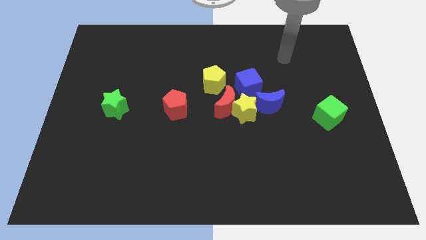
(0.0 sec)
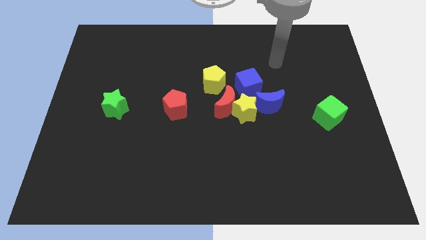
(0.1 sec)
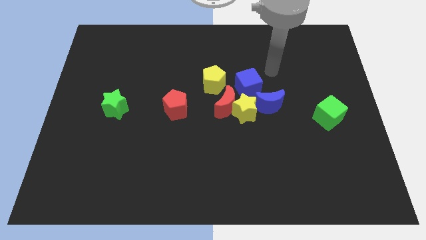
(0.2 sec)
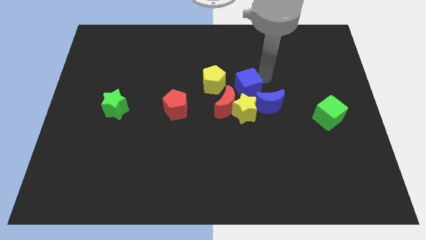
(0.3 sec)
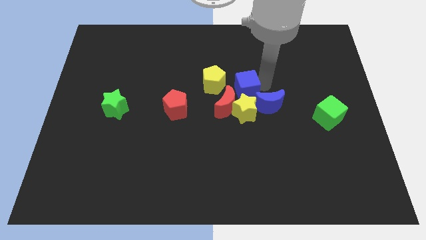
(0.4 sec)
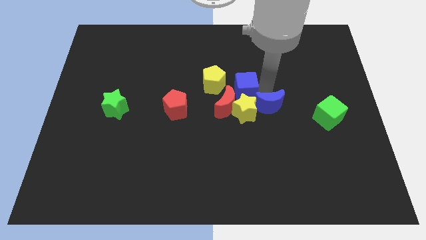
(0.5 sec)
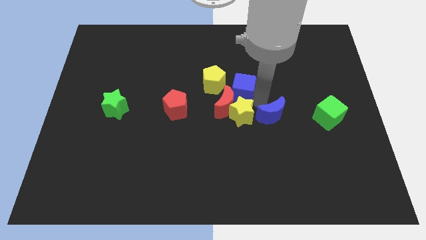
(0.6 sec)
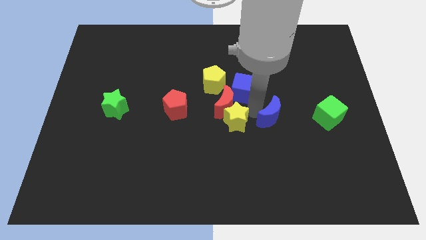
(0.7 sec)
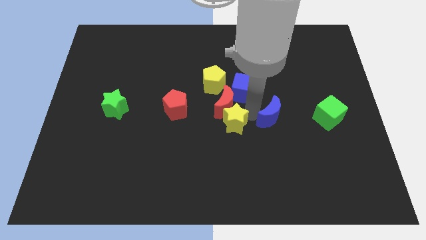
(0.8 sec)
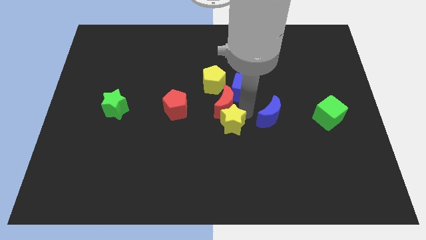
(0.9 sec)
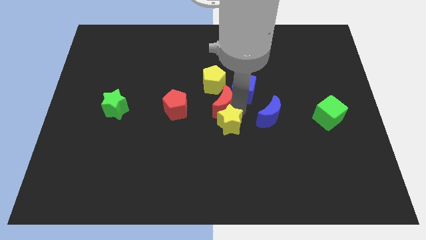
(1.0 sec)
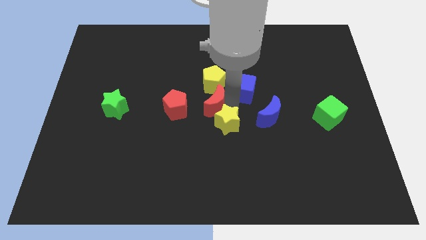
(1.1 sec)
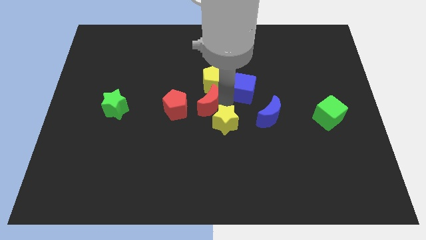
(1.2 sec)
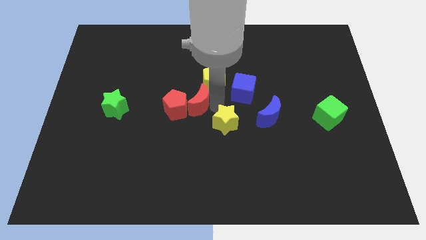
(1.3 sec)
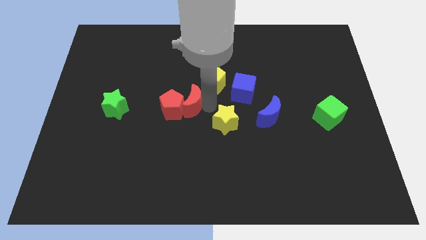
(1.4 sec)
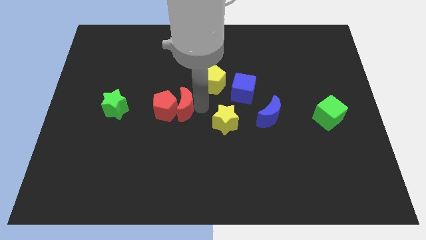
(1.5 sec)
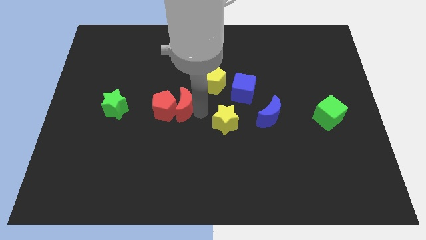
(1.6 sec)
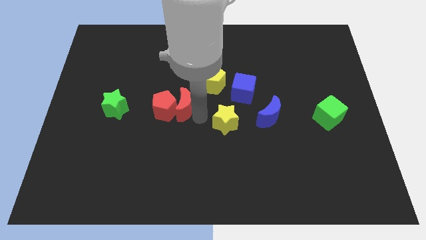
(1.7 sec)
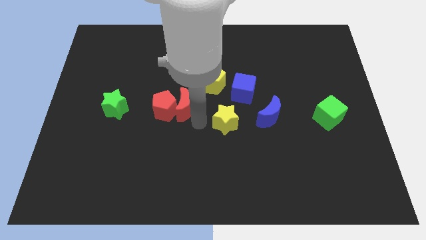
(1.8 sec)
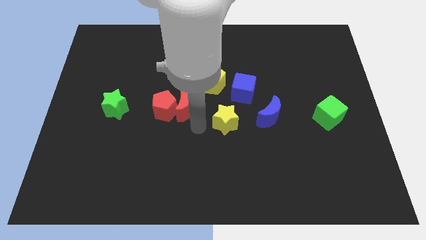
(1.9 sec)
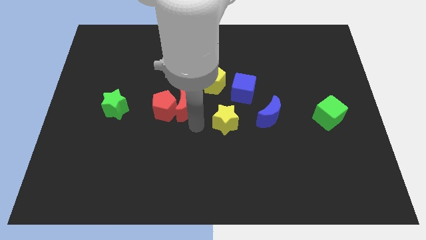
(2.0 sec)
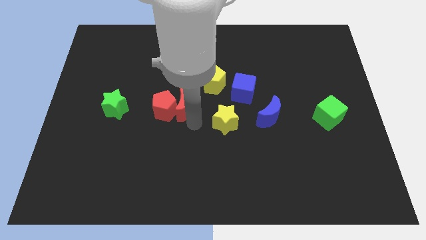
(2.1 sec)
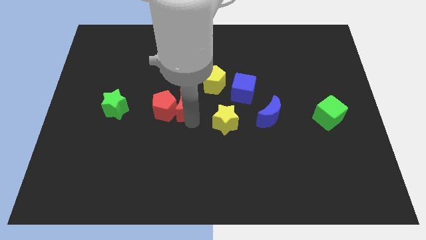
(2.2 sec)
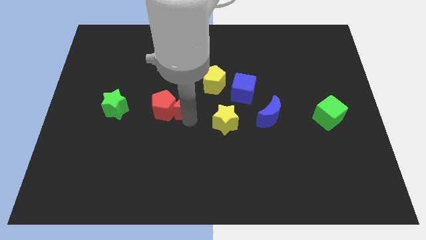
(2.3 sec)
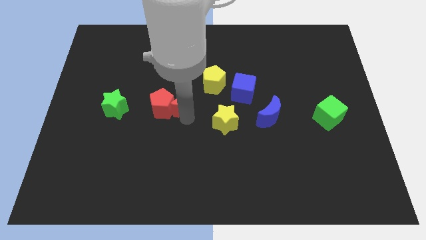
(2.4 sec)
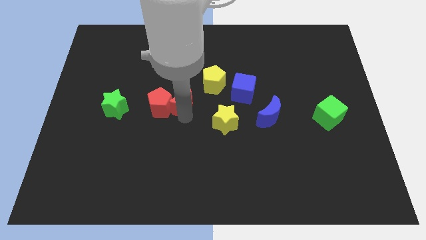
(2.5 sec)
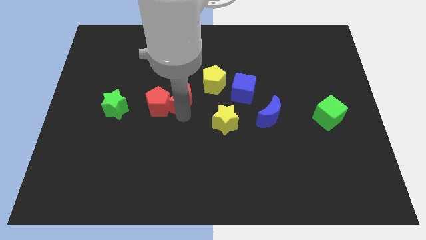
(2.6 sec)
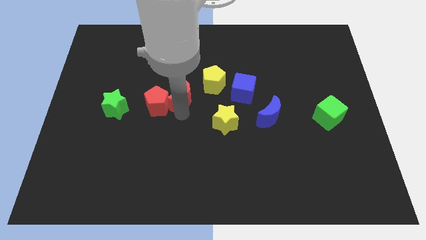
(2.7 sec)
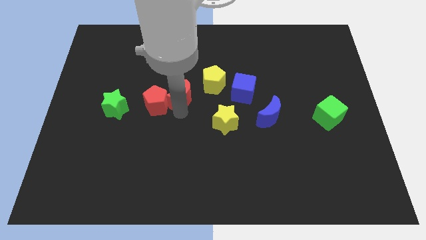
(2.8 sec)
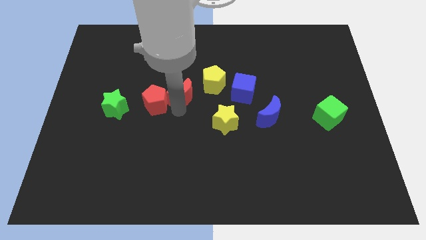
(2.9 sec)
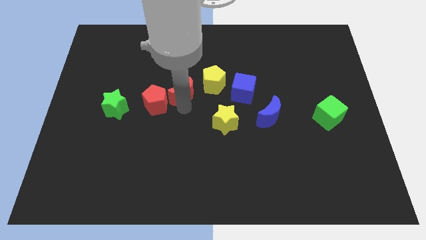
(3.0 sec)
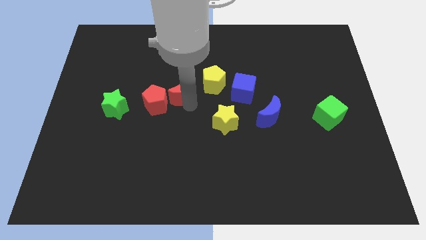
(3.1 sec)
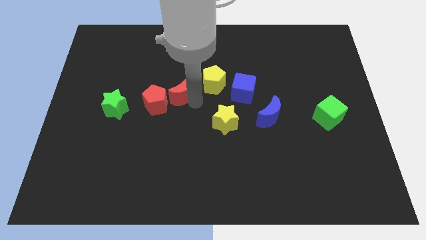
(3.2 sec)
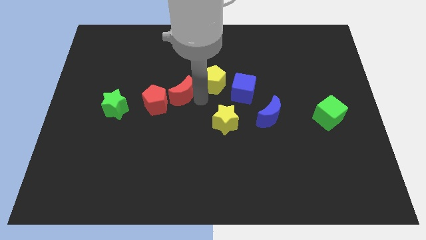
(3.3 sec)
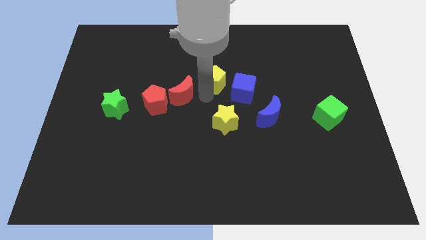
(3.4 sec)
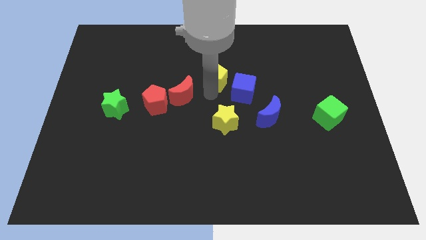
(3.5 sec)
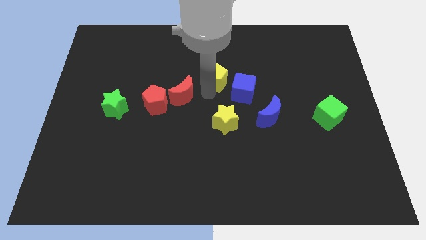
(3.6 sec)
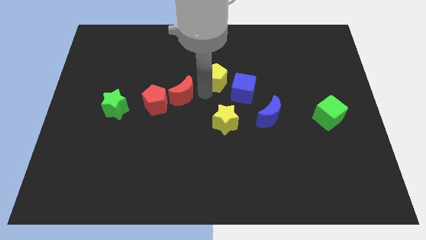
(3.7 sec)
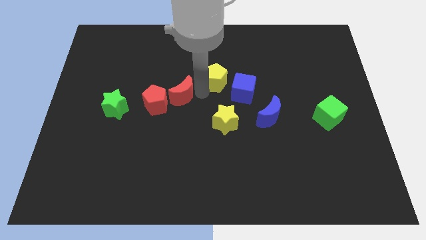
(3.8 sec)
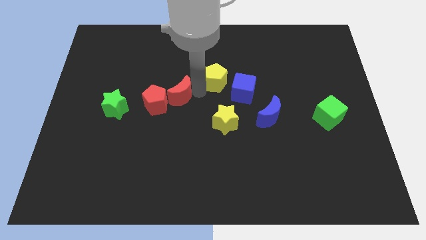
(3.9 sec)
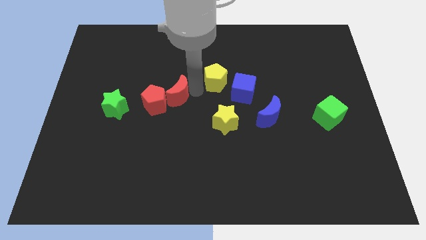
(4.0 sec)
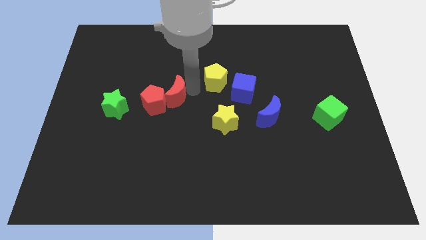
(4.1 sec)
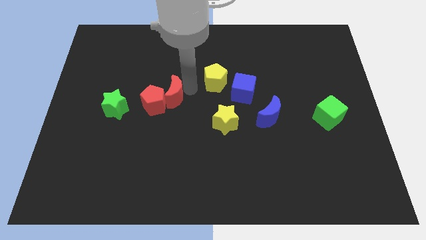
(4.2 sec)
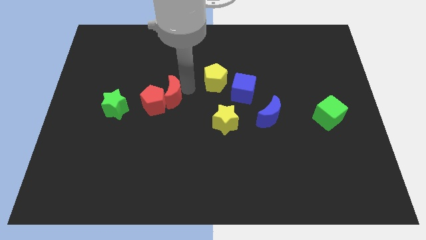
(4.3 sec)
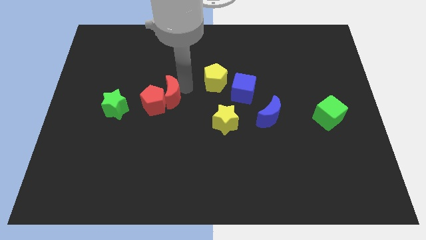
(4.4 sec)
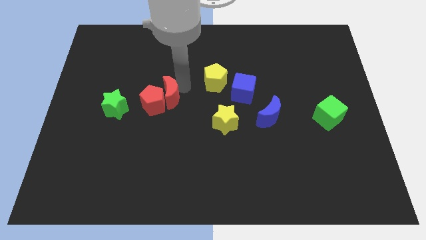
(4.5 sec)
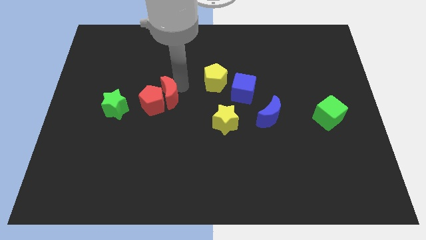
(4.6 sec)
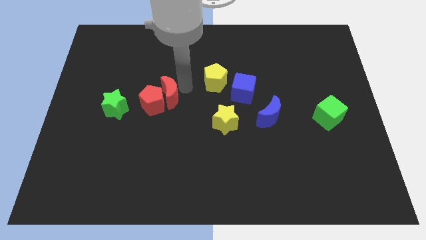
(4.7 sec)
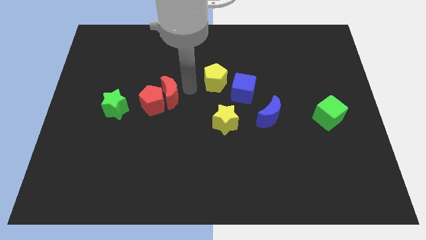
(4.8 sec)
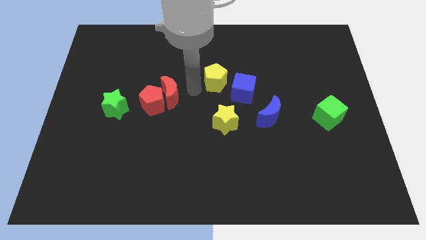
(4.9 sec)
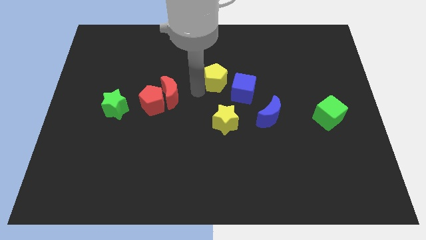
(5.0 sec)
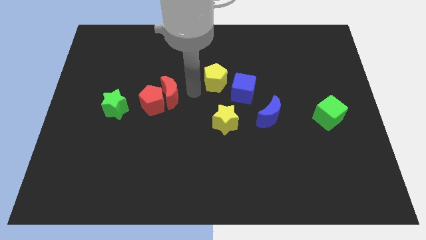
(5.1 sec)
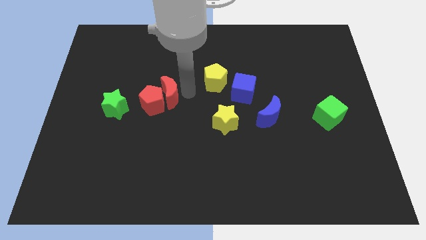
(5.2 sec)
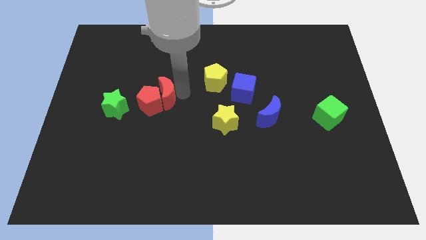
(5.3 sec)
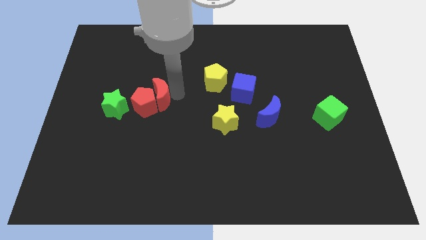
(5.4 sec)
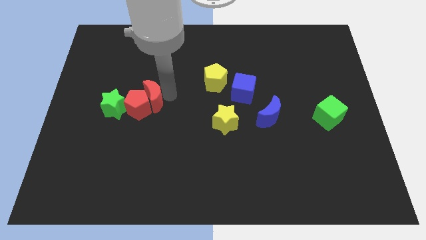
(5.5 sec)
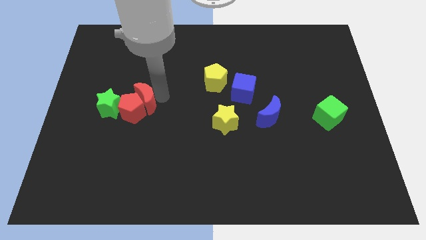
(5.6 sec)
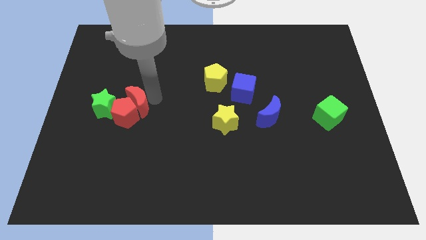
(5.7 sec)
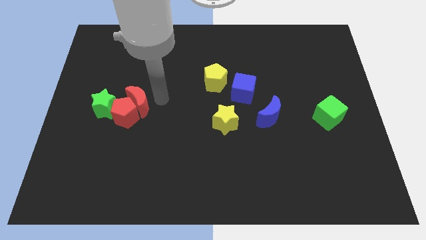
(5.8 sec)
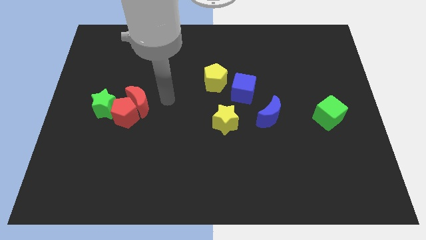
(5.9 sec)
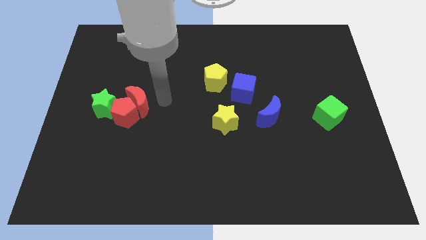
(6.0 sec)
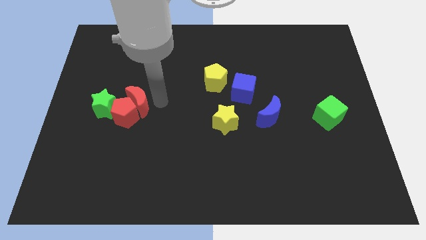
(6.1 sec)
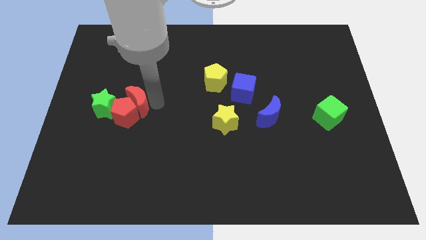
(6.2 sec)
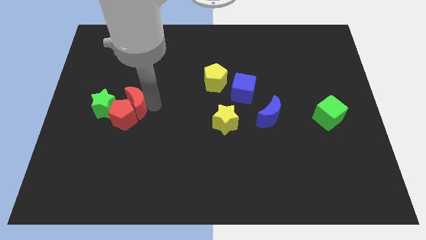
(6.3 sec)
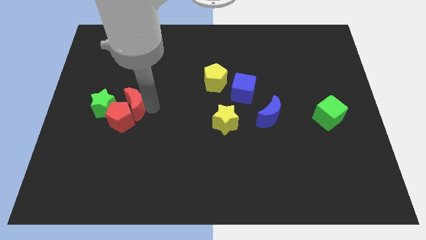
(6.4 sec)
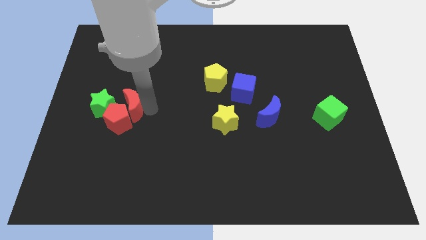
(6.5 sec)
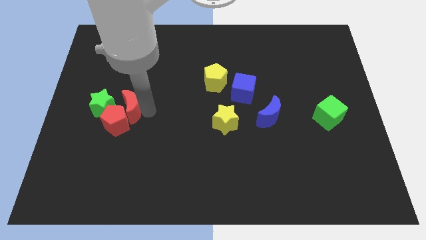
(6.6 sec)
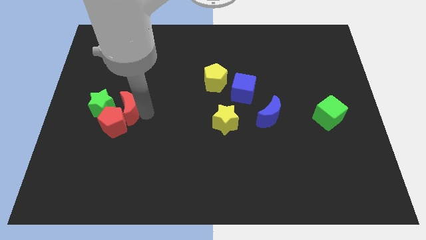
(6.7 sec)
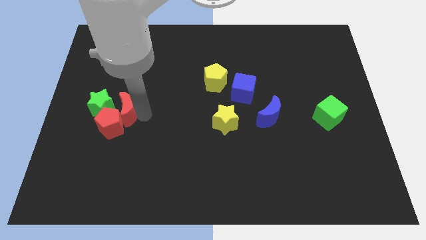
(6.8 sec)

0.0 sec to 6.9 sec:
move the red moon to the green star

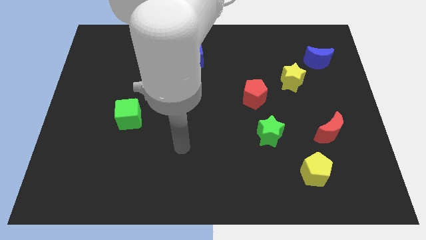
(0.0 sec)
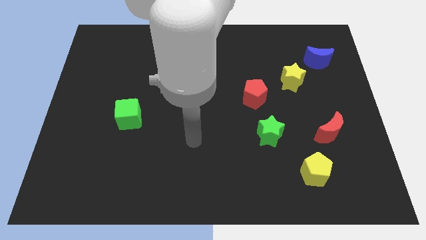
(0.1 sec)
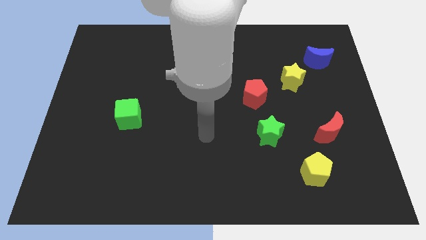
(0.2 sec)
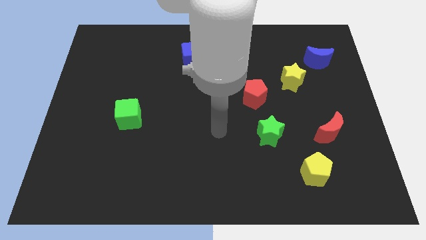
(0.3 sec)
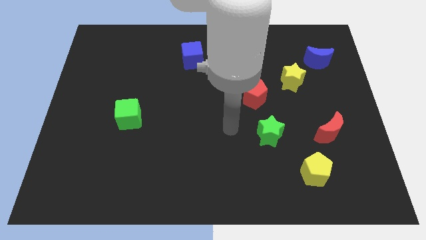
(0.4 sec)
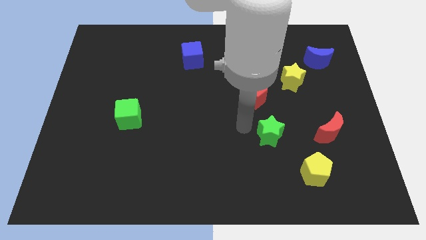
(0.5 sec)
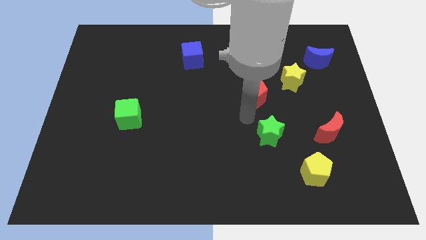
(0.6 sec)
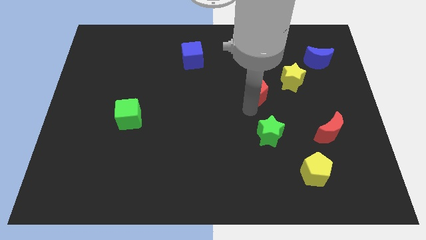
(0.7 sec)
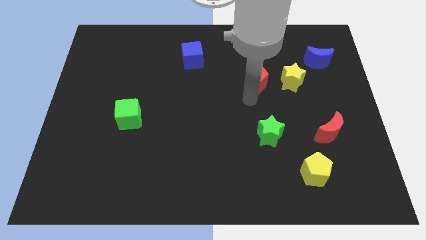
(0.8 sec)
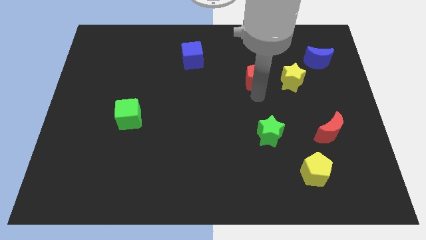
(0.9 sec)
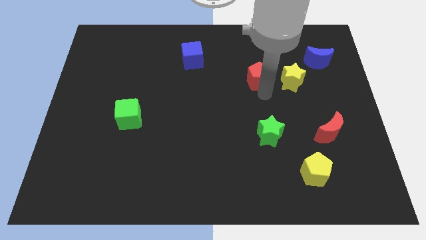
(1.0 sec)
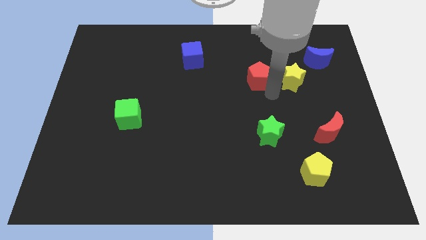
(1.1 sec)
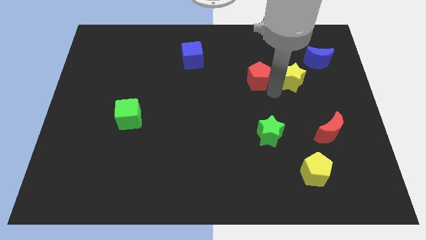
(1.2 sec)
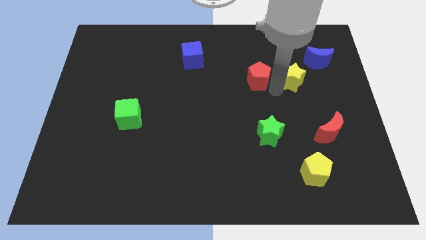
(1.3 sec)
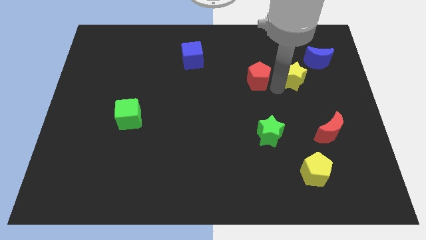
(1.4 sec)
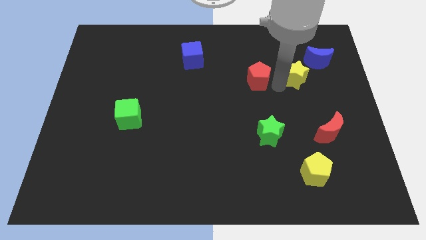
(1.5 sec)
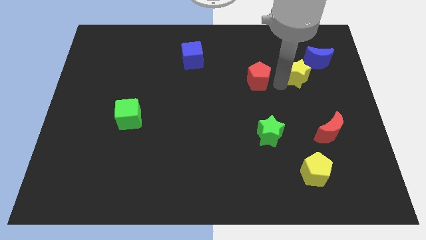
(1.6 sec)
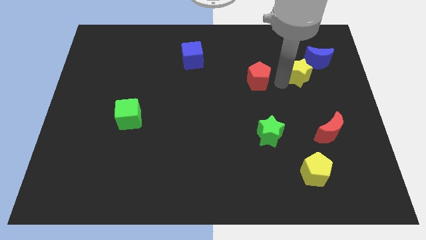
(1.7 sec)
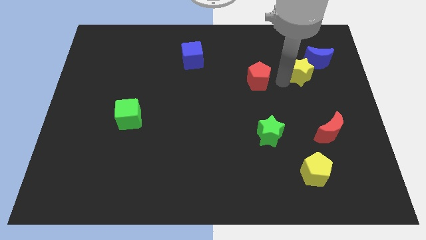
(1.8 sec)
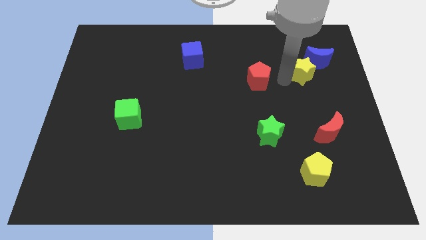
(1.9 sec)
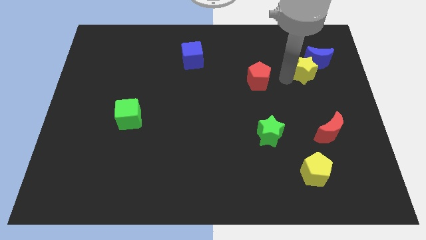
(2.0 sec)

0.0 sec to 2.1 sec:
move the yellow star to the blue moon
